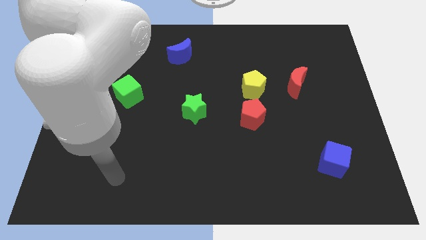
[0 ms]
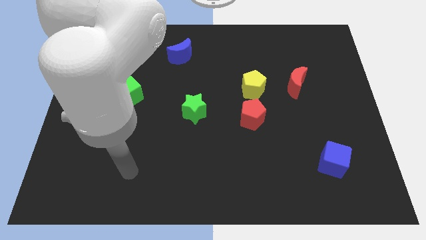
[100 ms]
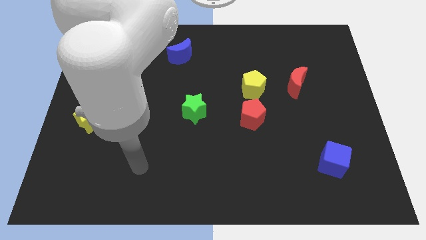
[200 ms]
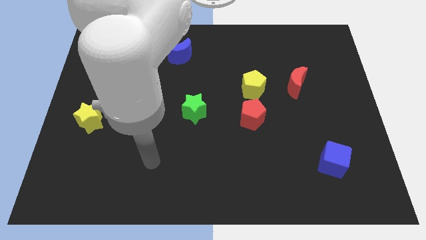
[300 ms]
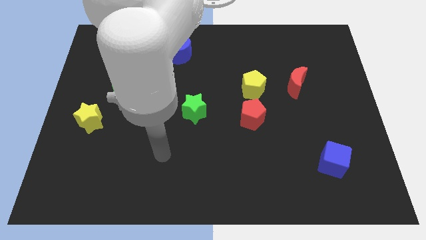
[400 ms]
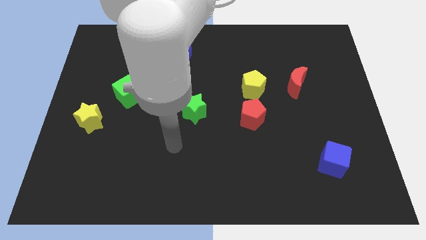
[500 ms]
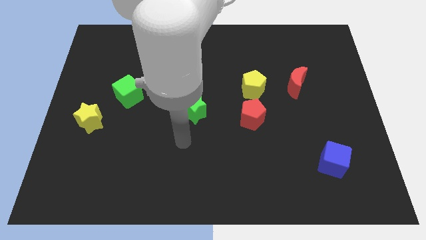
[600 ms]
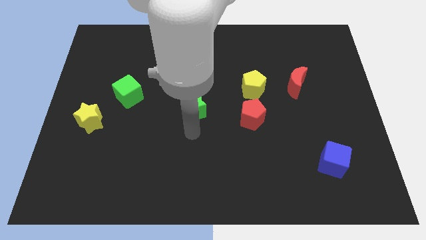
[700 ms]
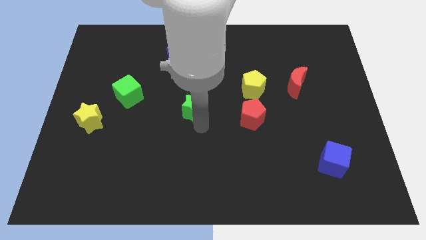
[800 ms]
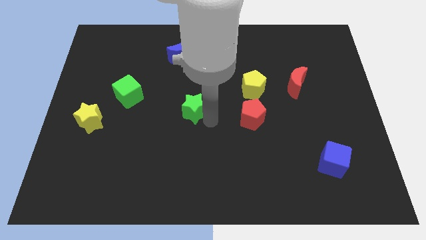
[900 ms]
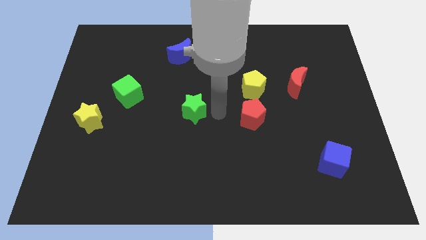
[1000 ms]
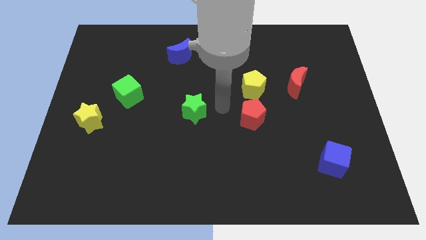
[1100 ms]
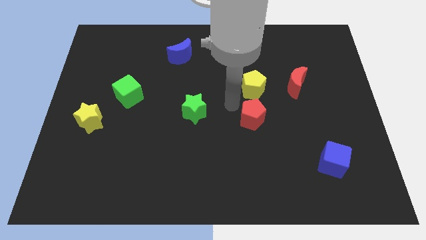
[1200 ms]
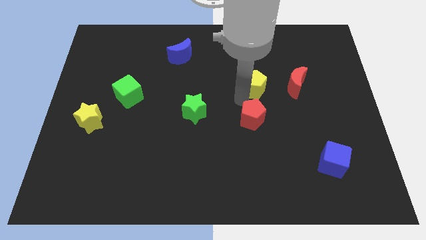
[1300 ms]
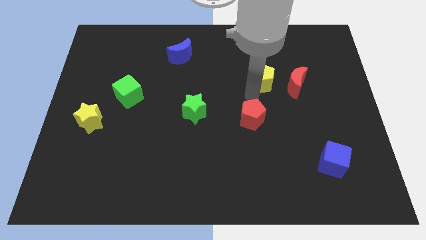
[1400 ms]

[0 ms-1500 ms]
separate the red pentagon from the yellow pentagon

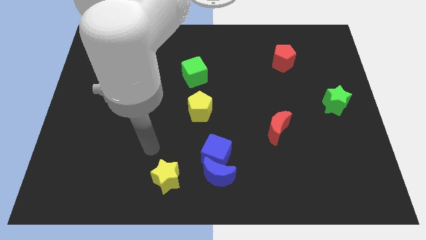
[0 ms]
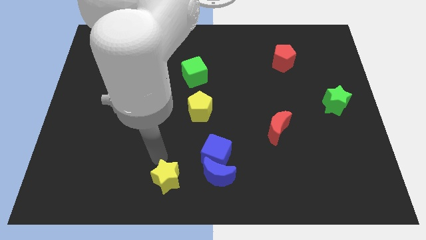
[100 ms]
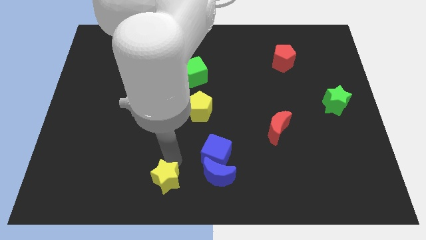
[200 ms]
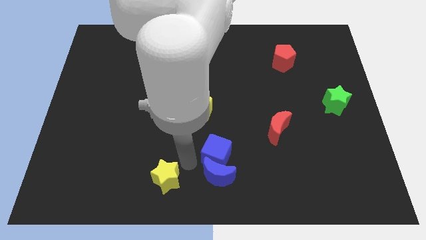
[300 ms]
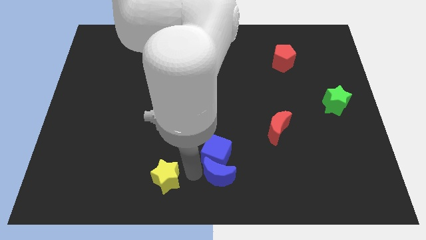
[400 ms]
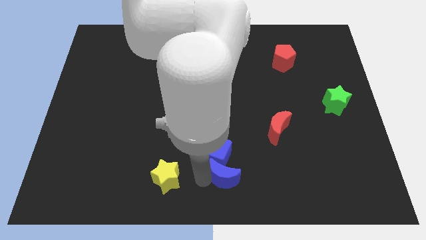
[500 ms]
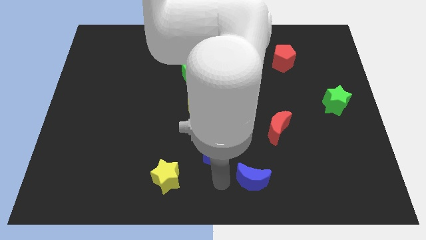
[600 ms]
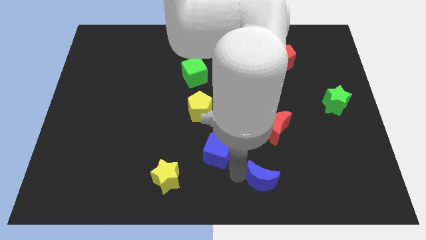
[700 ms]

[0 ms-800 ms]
move the blue cube away from the blue moon

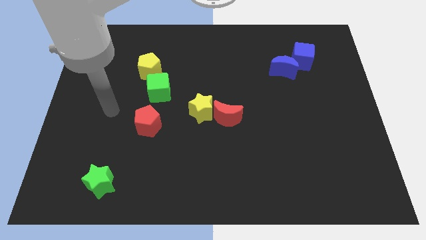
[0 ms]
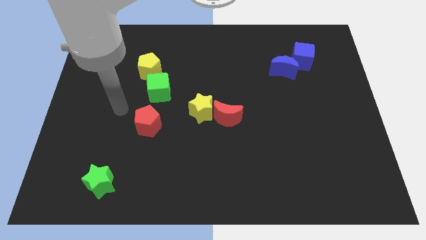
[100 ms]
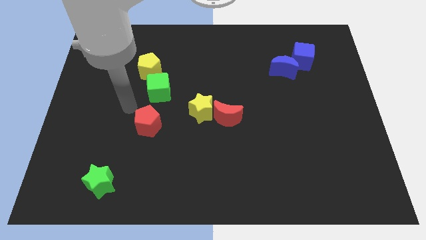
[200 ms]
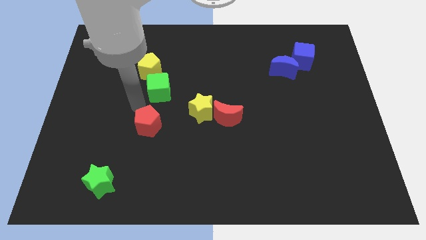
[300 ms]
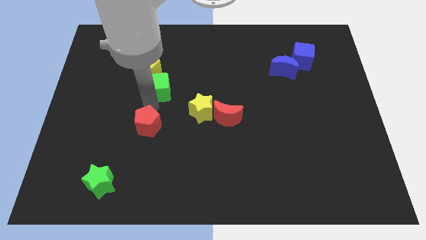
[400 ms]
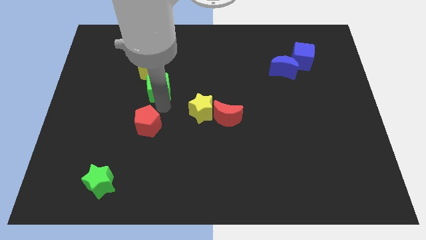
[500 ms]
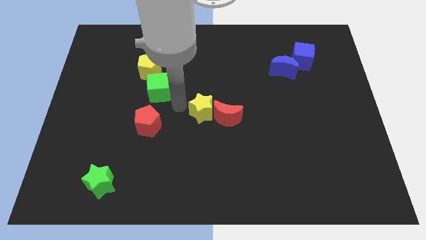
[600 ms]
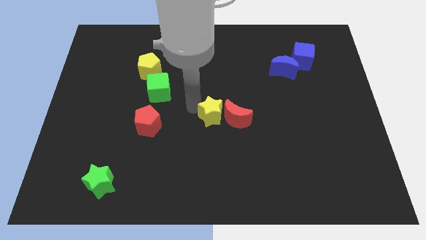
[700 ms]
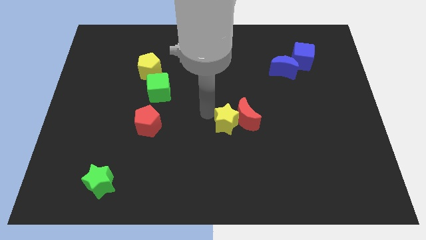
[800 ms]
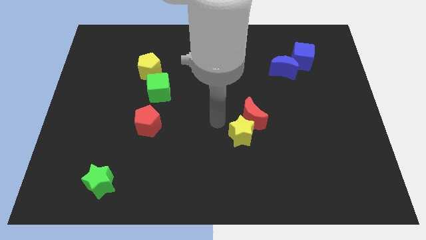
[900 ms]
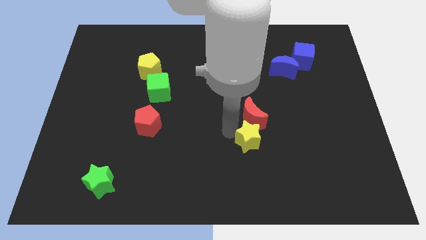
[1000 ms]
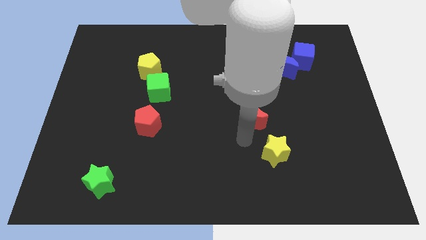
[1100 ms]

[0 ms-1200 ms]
pull the red moon apart from the yellow star

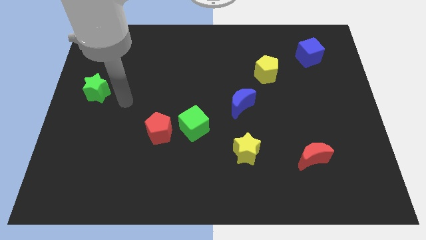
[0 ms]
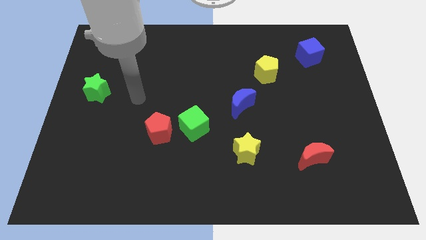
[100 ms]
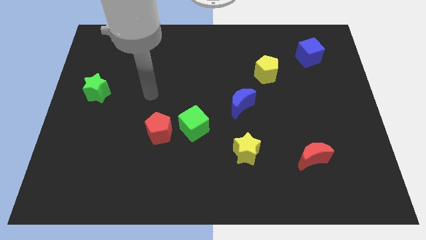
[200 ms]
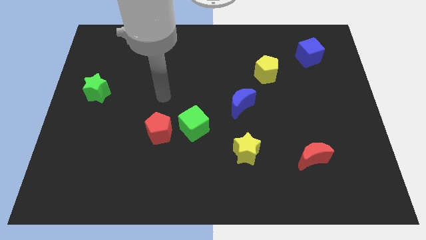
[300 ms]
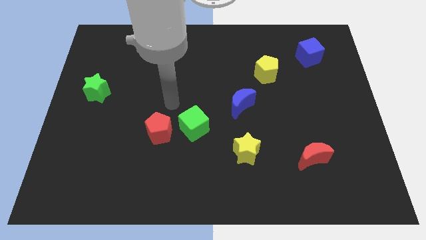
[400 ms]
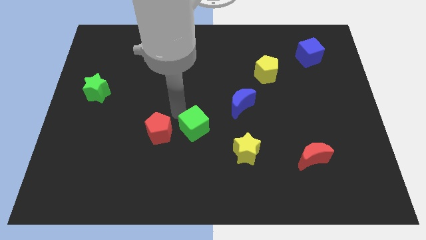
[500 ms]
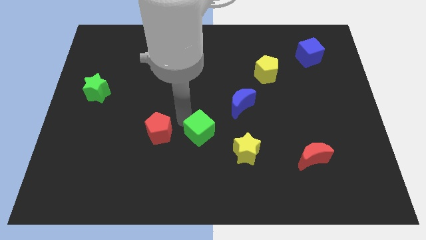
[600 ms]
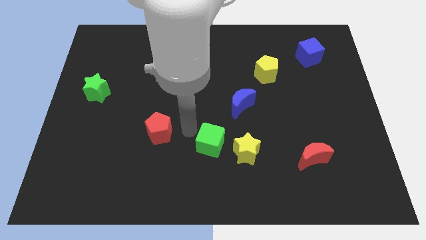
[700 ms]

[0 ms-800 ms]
separate the red pentagon from the green cube

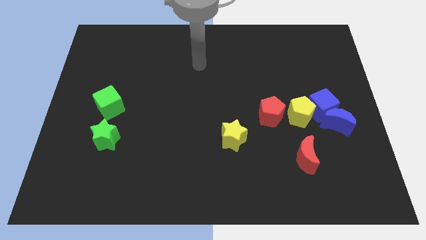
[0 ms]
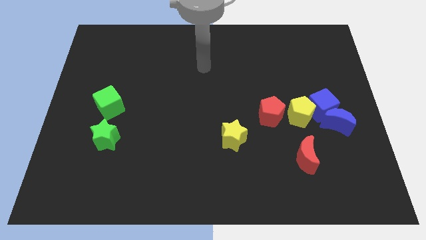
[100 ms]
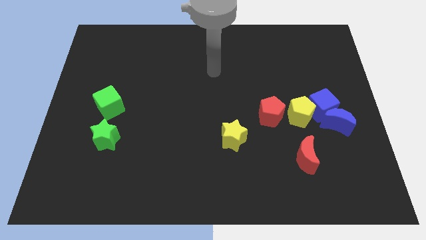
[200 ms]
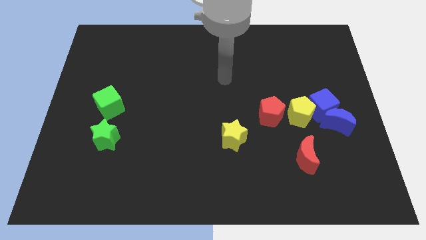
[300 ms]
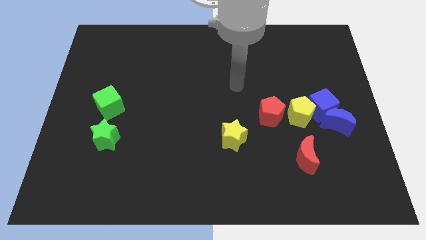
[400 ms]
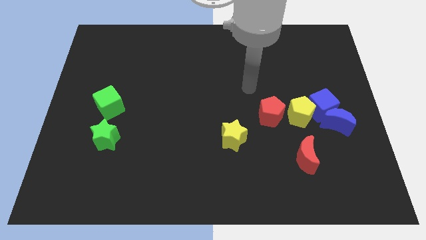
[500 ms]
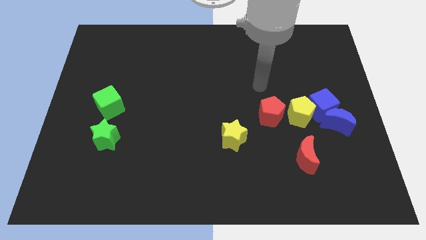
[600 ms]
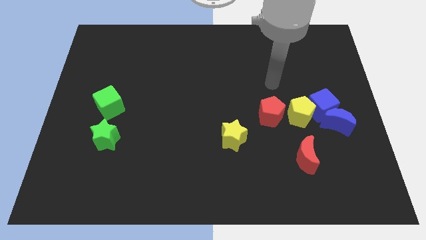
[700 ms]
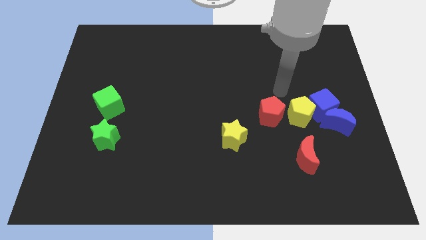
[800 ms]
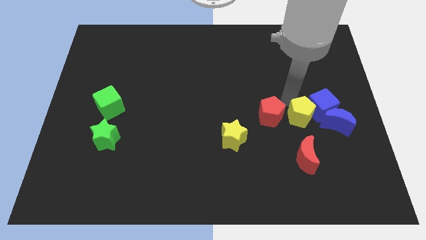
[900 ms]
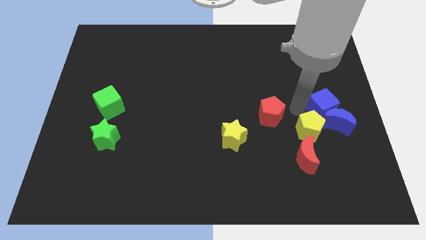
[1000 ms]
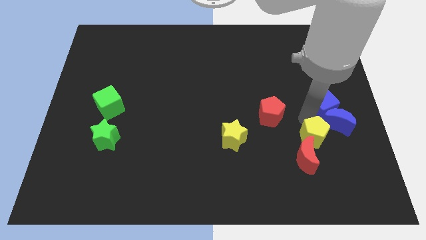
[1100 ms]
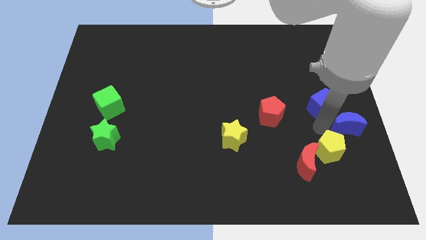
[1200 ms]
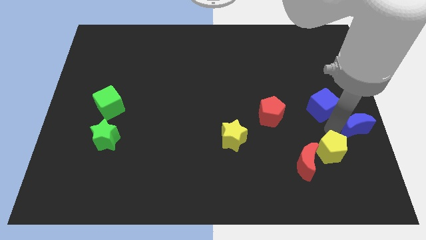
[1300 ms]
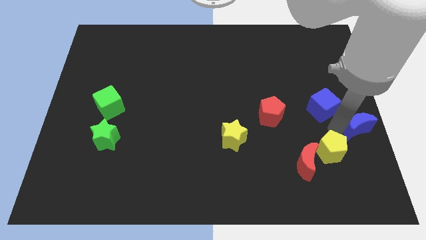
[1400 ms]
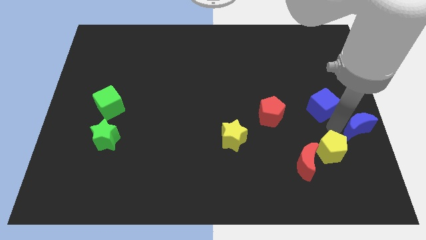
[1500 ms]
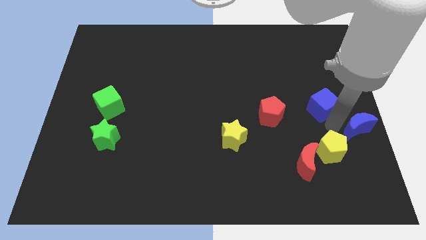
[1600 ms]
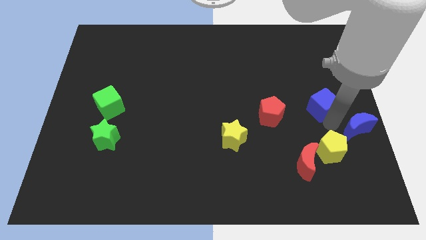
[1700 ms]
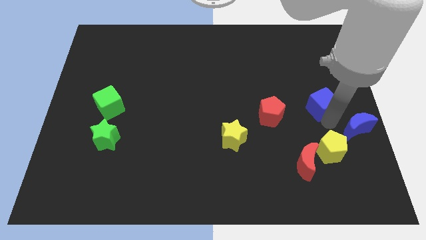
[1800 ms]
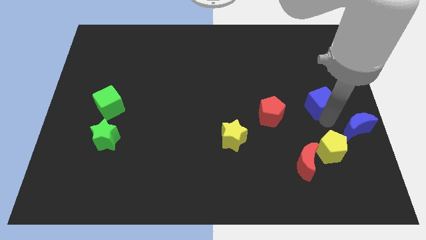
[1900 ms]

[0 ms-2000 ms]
pull the blue cube apart from the blue moon and yellow pentagon

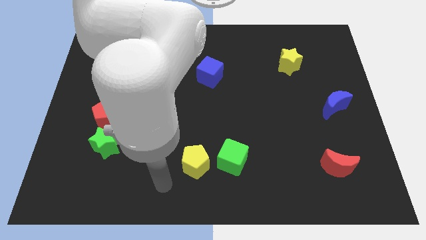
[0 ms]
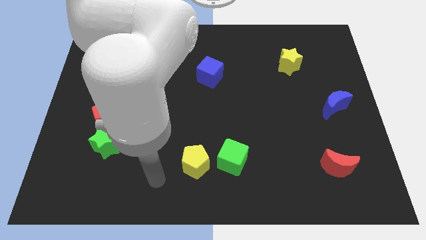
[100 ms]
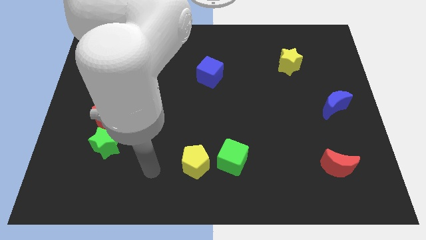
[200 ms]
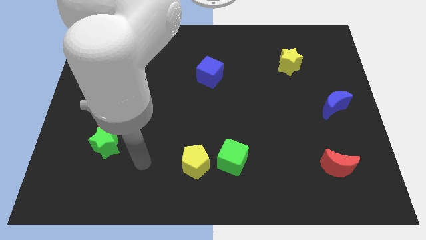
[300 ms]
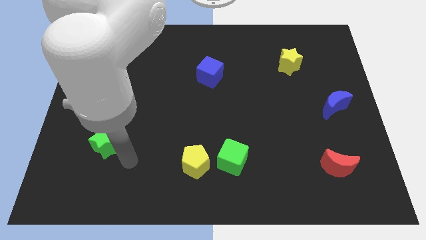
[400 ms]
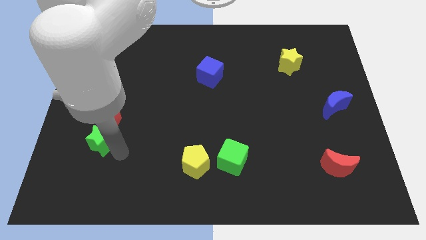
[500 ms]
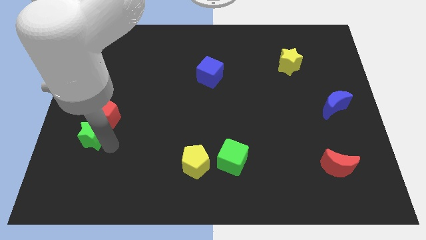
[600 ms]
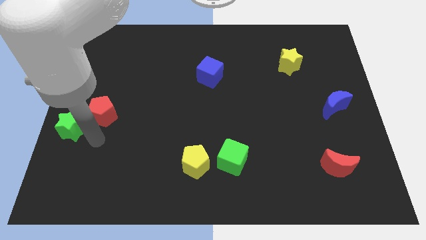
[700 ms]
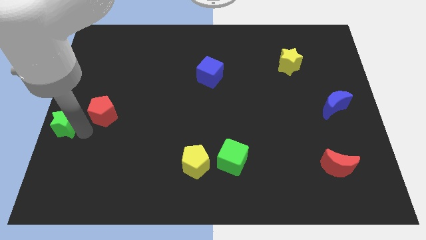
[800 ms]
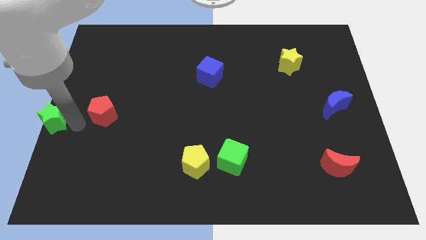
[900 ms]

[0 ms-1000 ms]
pull the red pentagon apart from the green star

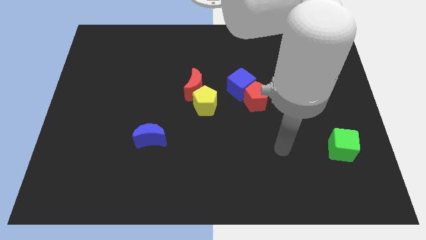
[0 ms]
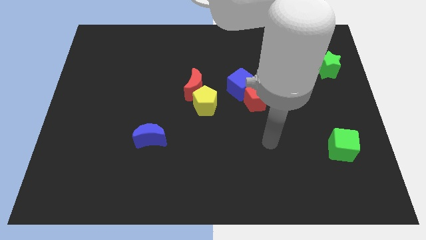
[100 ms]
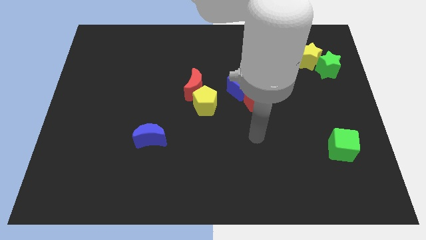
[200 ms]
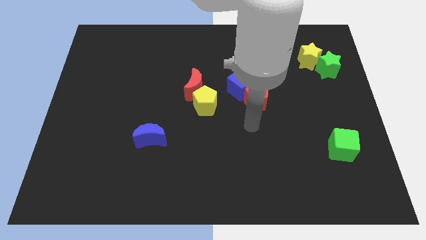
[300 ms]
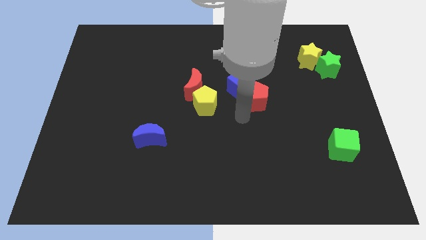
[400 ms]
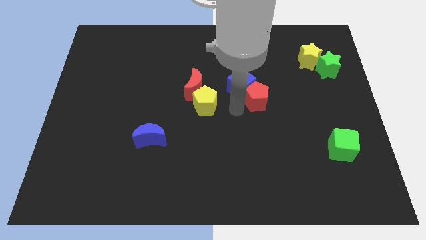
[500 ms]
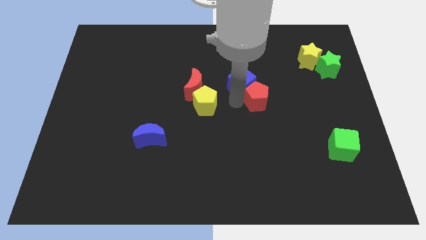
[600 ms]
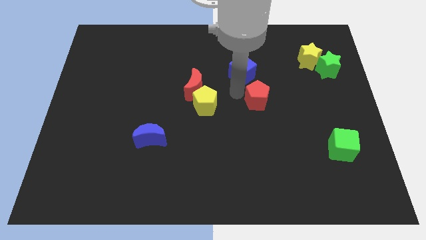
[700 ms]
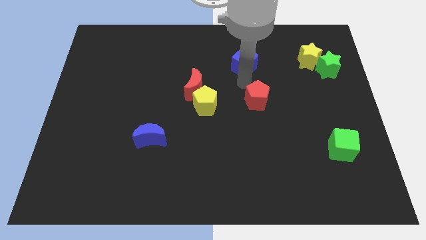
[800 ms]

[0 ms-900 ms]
move the red pentagon away from the blue cube

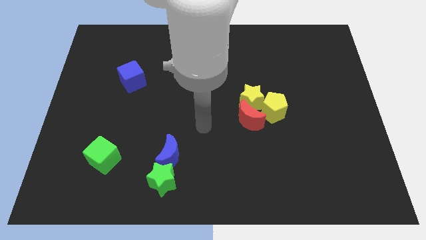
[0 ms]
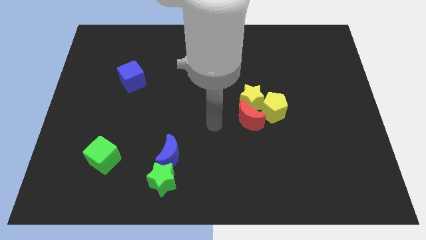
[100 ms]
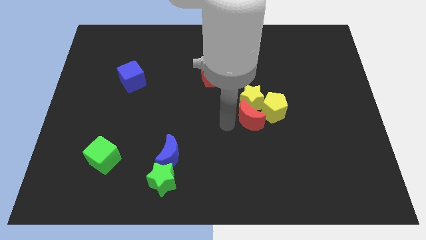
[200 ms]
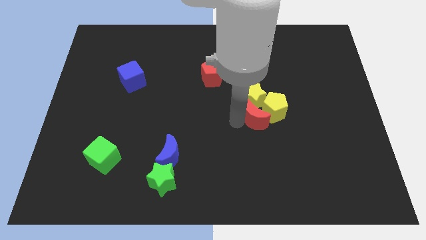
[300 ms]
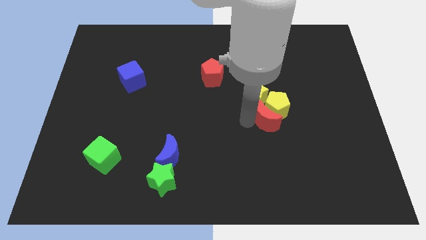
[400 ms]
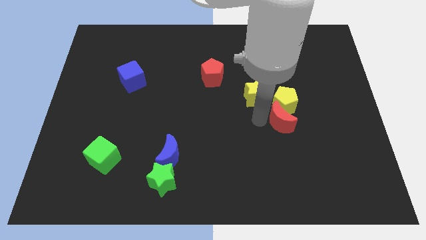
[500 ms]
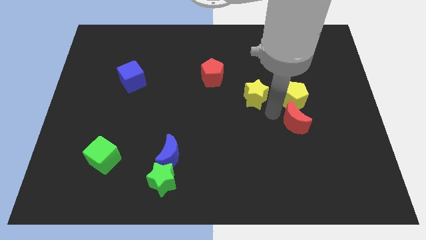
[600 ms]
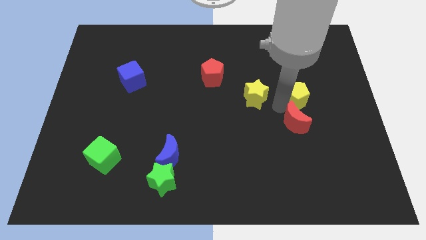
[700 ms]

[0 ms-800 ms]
move the yellow star away from the red moon and yellow pentagon

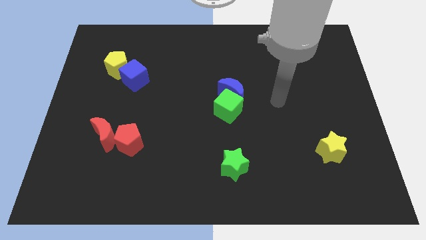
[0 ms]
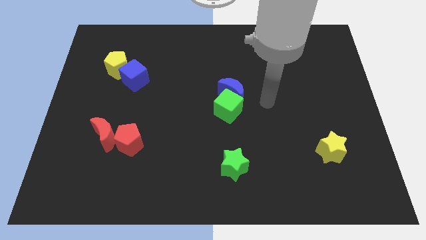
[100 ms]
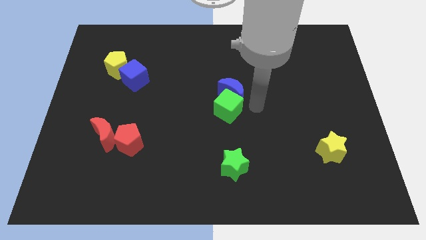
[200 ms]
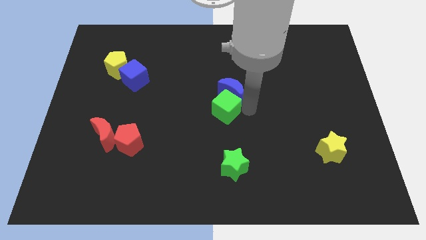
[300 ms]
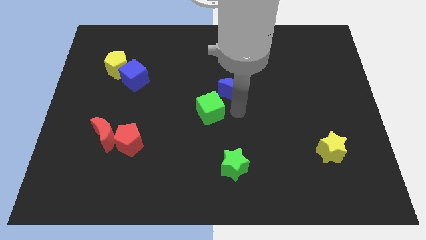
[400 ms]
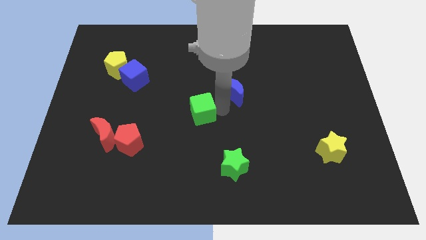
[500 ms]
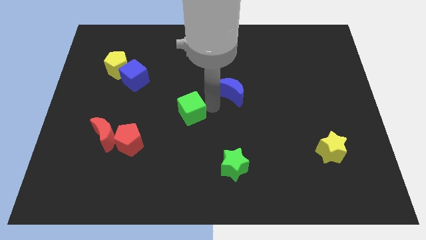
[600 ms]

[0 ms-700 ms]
pull the blue moon apart from the green cube
